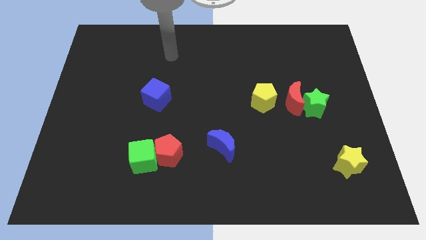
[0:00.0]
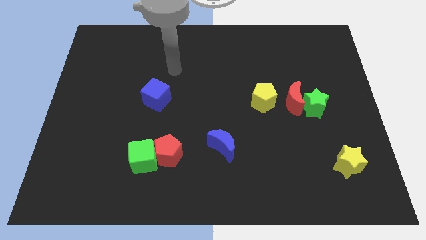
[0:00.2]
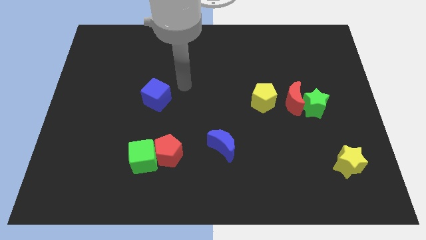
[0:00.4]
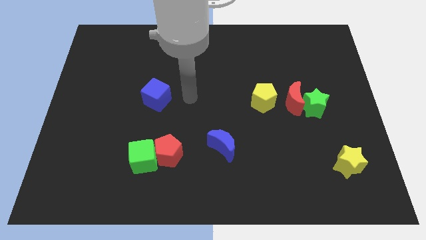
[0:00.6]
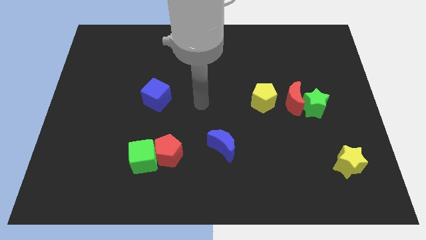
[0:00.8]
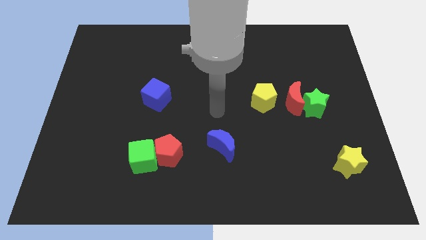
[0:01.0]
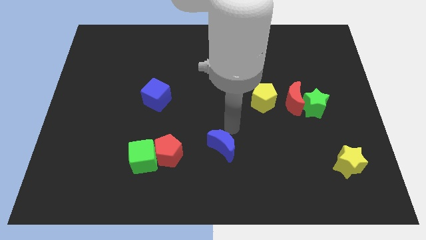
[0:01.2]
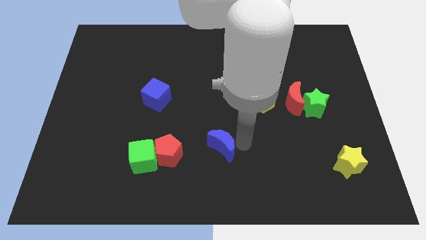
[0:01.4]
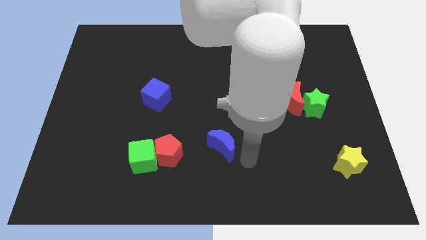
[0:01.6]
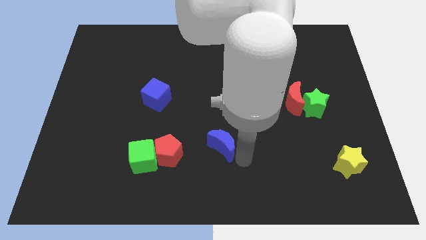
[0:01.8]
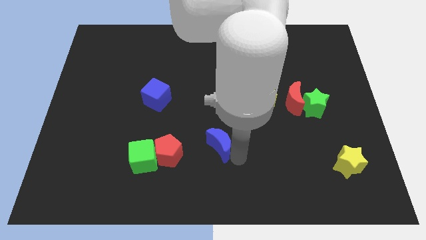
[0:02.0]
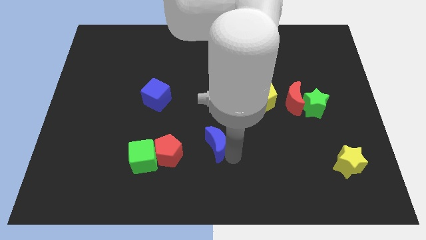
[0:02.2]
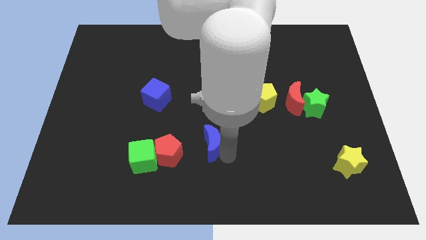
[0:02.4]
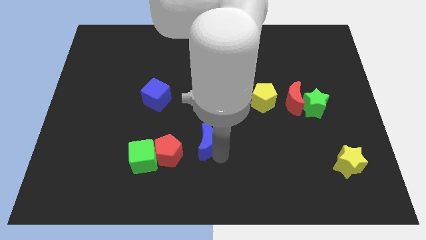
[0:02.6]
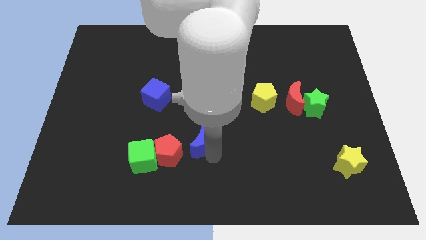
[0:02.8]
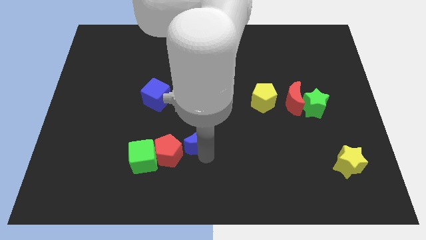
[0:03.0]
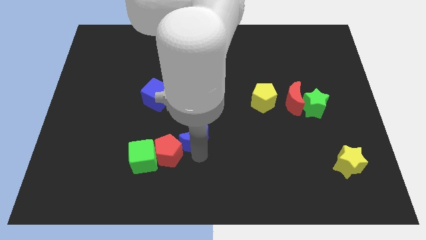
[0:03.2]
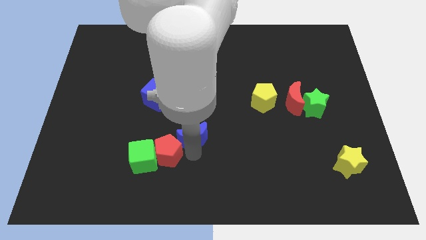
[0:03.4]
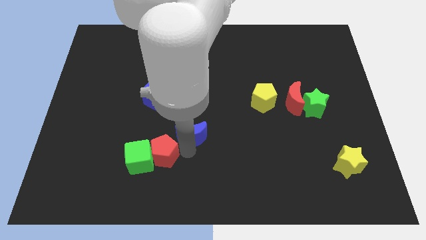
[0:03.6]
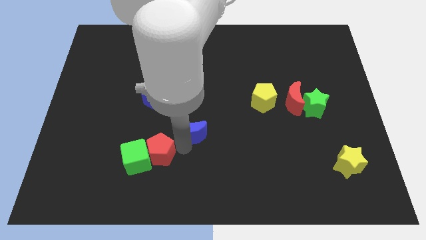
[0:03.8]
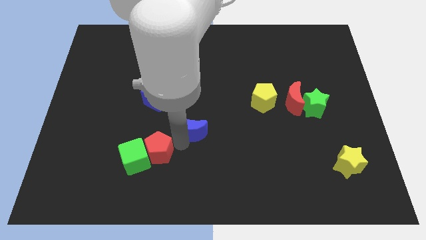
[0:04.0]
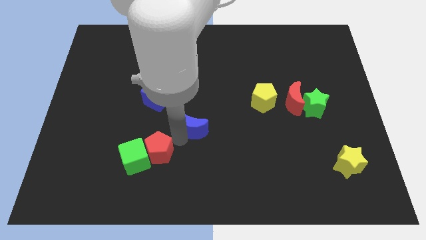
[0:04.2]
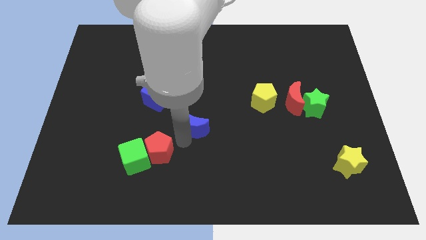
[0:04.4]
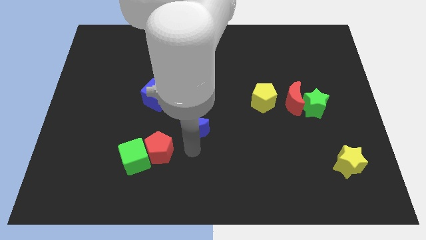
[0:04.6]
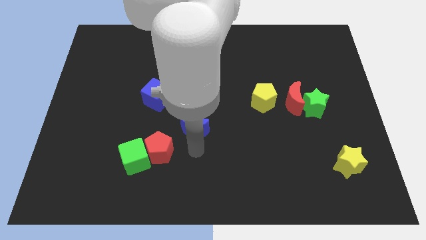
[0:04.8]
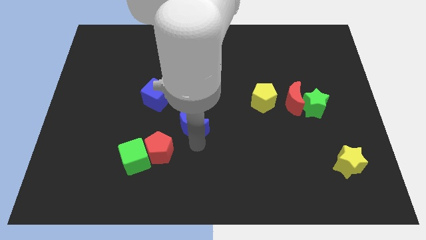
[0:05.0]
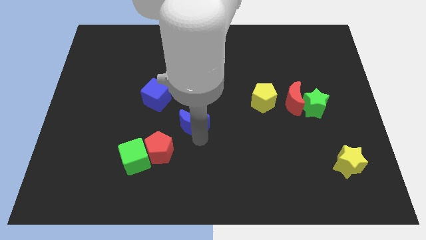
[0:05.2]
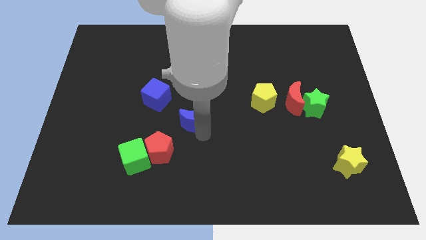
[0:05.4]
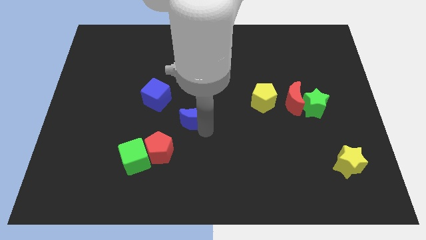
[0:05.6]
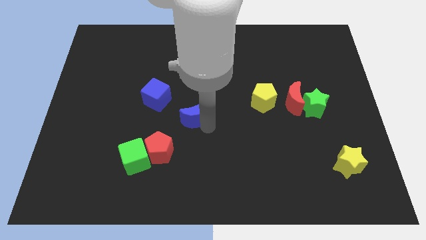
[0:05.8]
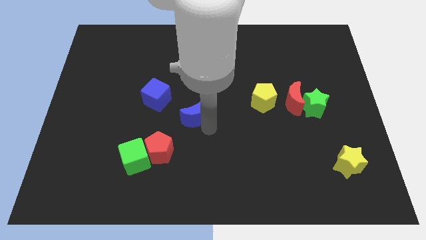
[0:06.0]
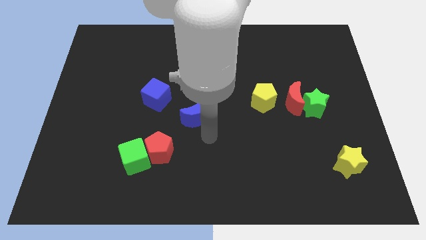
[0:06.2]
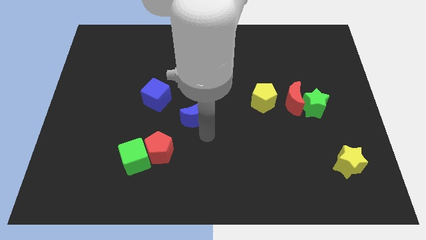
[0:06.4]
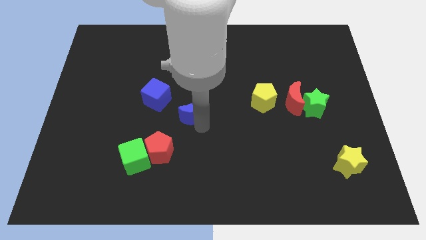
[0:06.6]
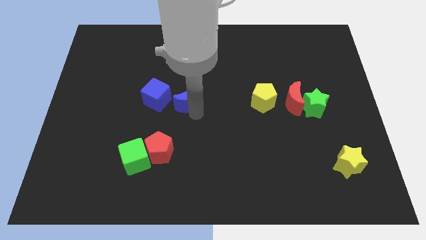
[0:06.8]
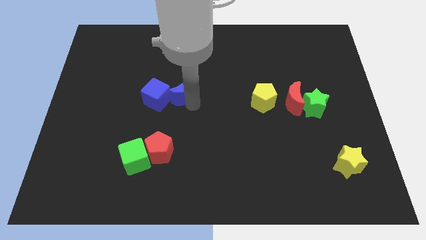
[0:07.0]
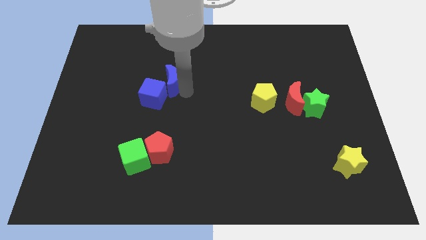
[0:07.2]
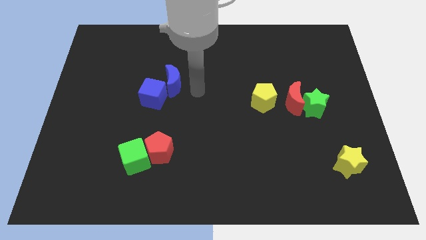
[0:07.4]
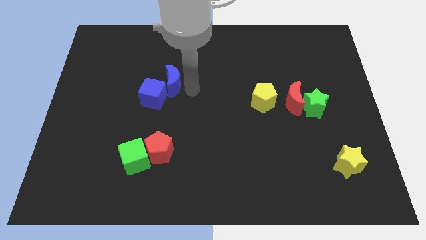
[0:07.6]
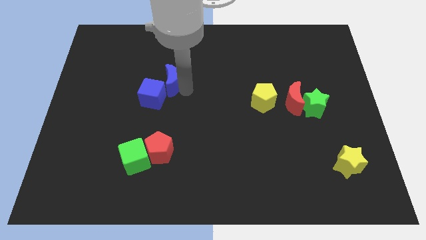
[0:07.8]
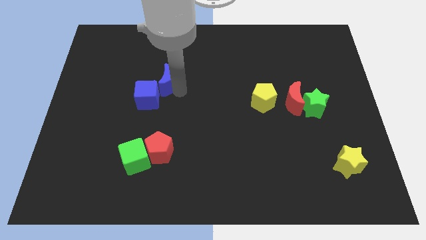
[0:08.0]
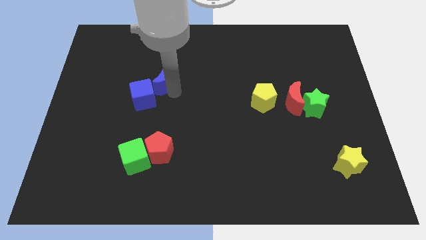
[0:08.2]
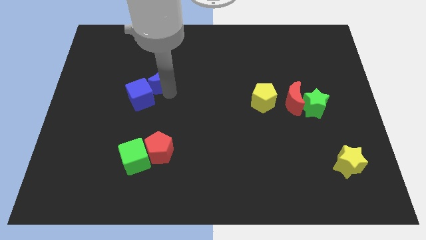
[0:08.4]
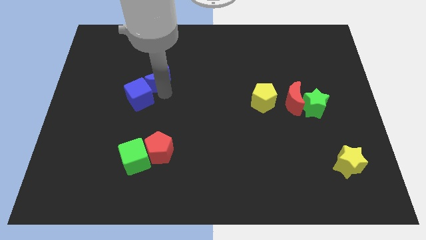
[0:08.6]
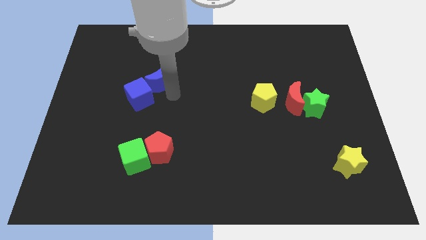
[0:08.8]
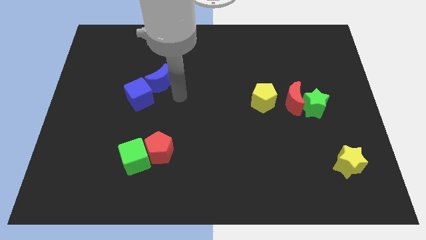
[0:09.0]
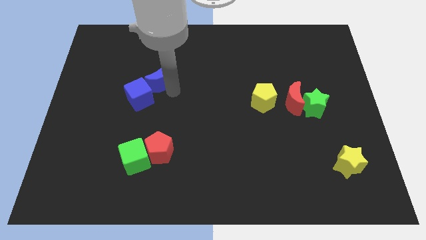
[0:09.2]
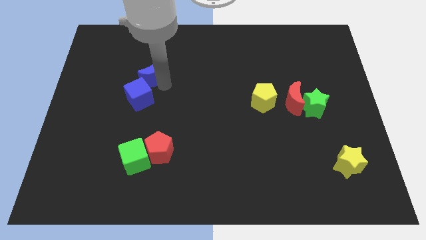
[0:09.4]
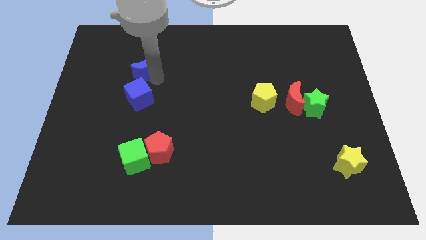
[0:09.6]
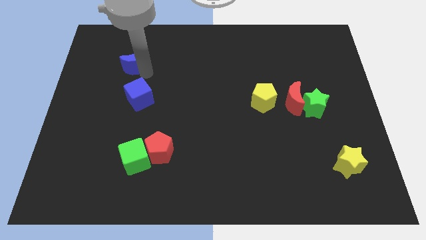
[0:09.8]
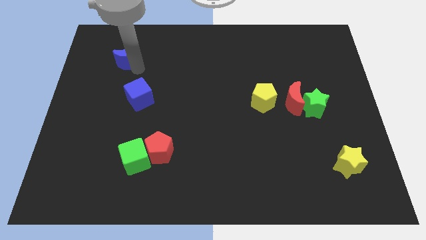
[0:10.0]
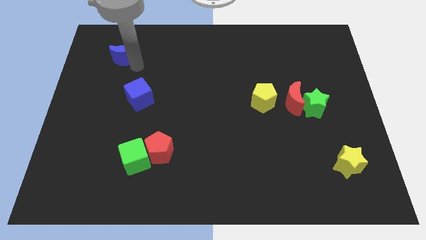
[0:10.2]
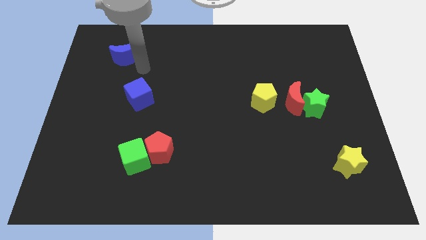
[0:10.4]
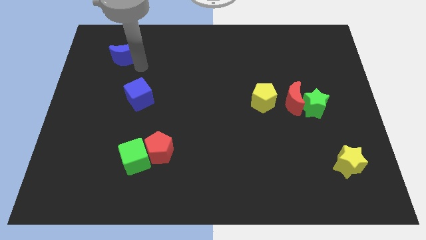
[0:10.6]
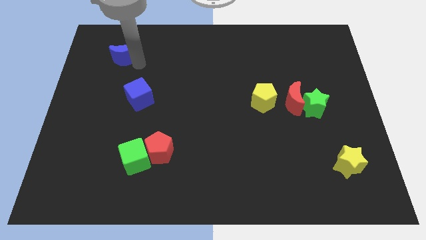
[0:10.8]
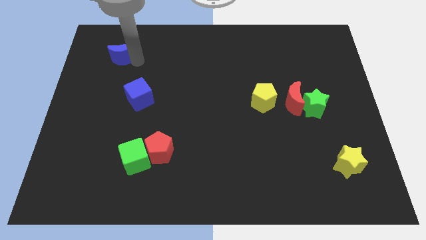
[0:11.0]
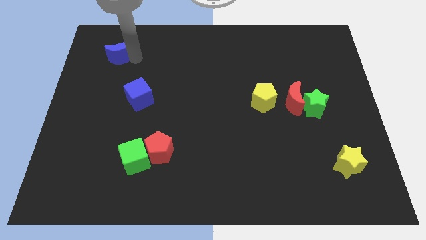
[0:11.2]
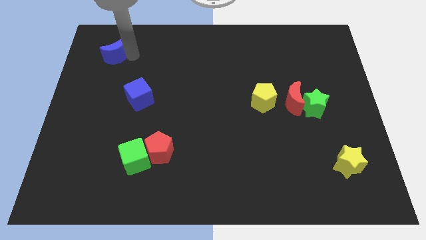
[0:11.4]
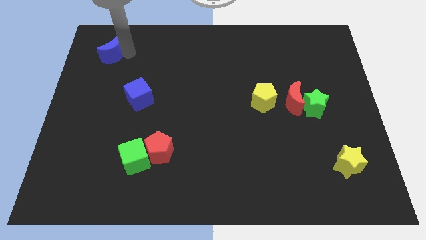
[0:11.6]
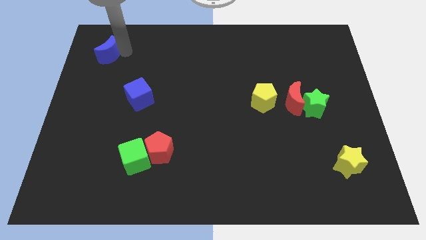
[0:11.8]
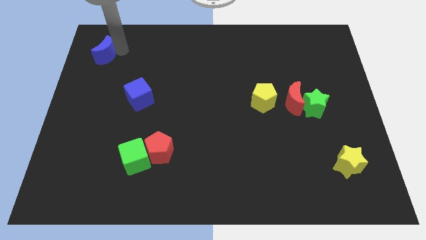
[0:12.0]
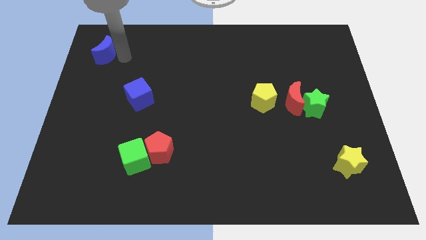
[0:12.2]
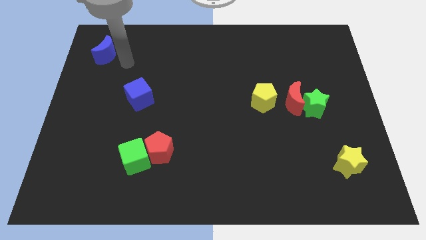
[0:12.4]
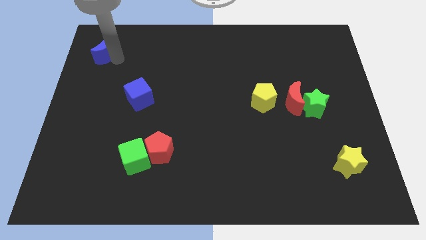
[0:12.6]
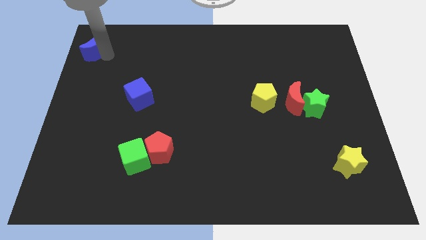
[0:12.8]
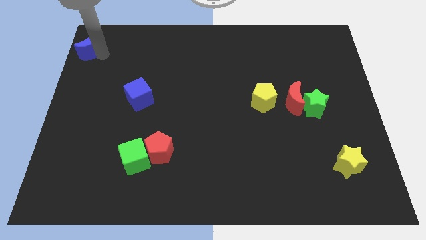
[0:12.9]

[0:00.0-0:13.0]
put the blue moon to the top left
